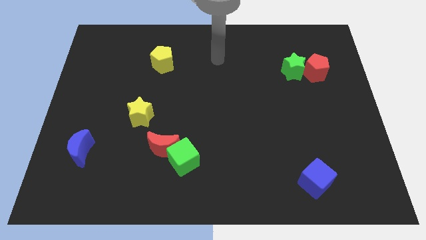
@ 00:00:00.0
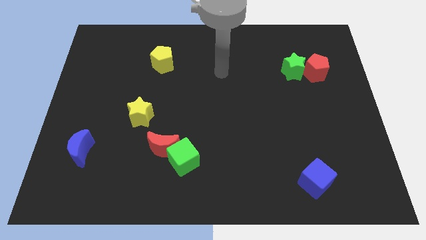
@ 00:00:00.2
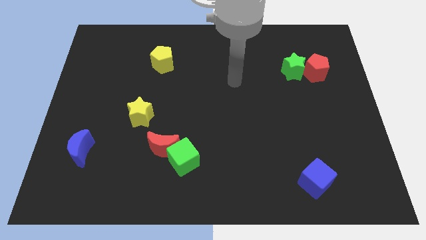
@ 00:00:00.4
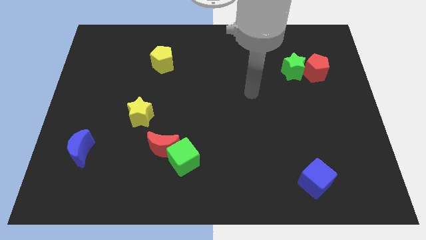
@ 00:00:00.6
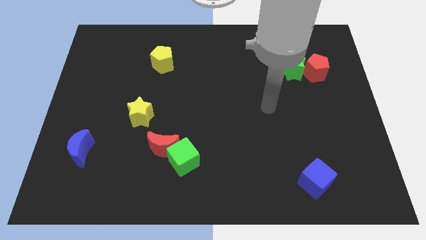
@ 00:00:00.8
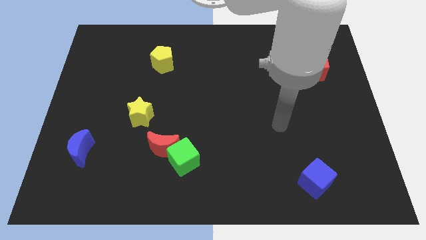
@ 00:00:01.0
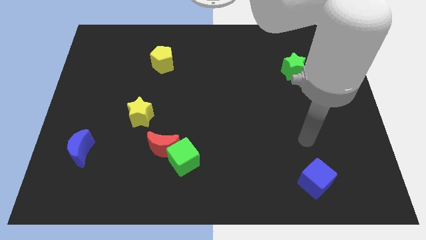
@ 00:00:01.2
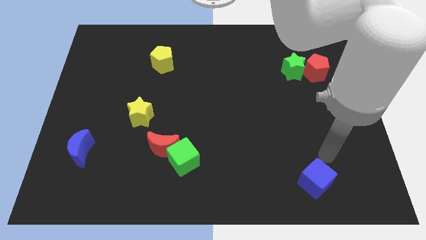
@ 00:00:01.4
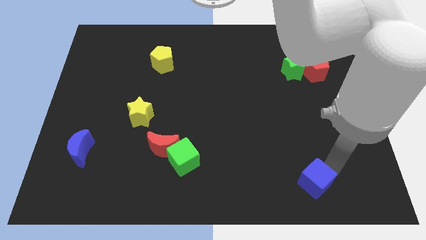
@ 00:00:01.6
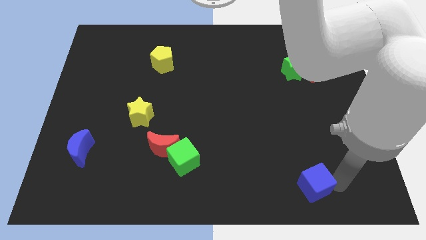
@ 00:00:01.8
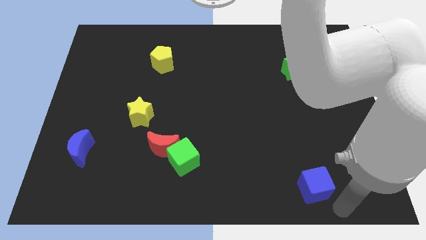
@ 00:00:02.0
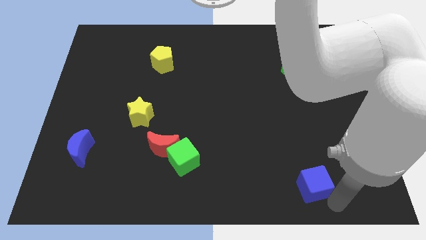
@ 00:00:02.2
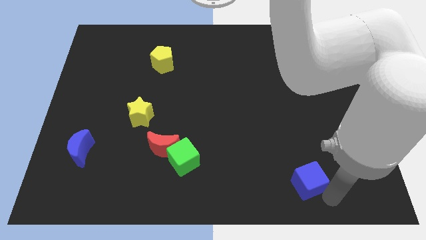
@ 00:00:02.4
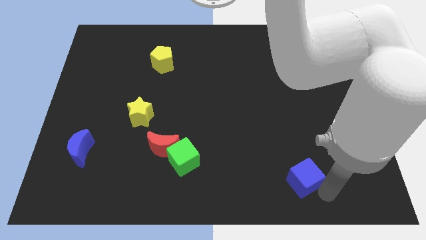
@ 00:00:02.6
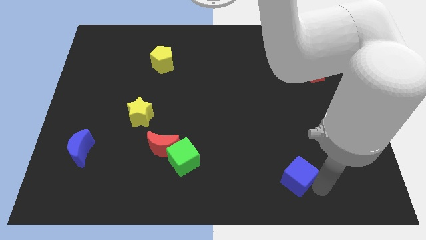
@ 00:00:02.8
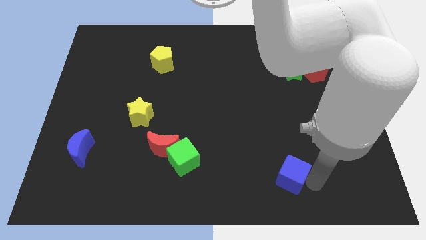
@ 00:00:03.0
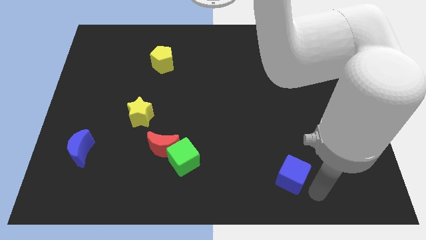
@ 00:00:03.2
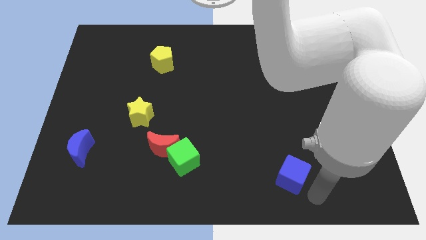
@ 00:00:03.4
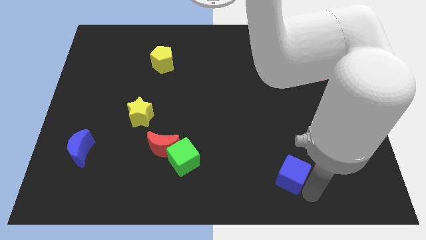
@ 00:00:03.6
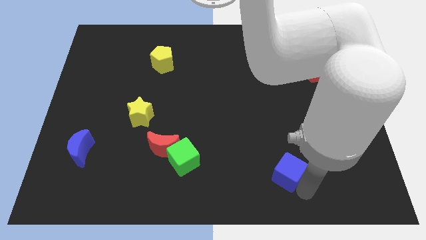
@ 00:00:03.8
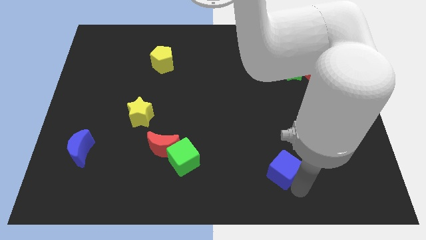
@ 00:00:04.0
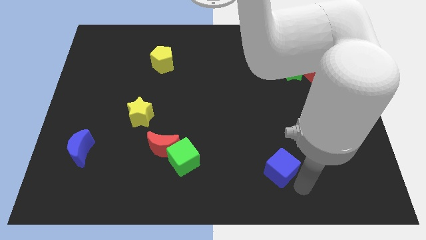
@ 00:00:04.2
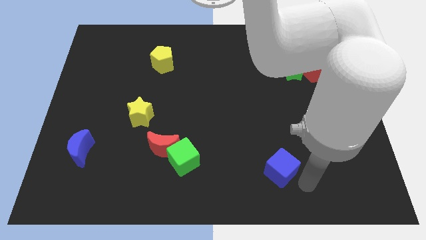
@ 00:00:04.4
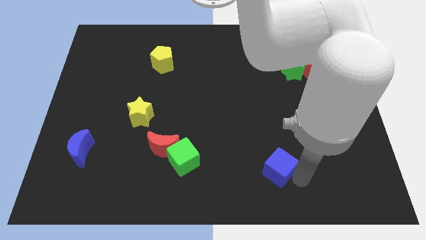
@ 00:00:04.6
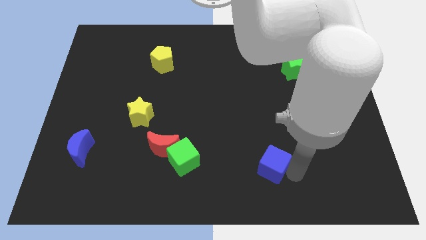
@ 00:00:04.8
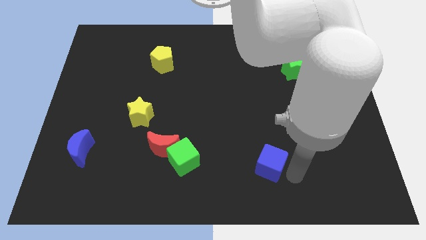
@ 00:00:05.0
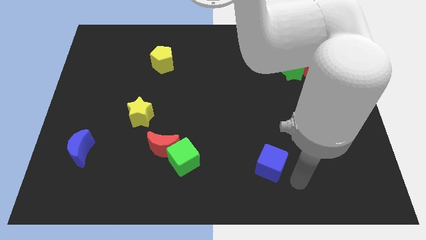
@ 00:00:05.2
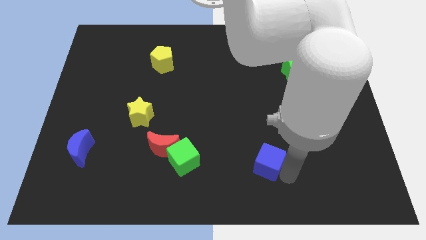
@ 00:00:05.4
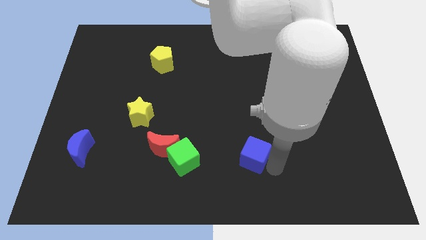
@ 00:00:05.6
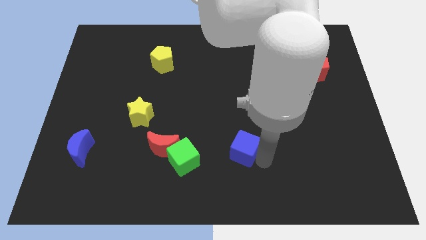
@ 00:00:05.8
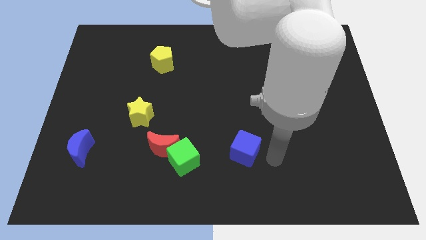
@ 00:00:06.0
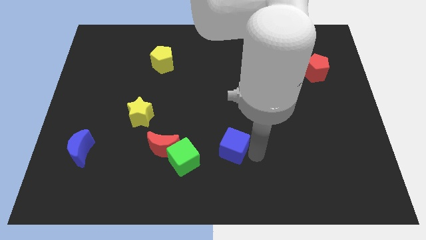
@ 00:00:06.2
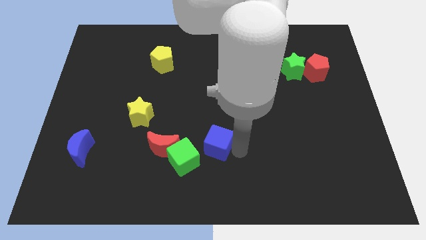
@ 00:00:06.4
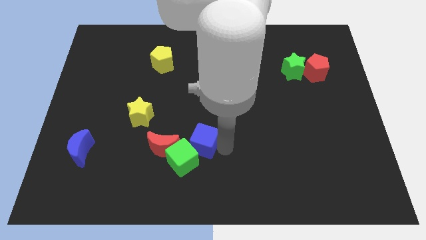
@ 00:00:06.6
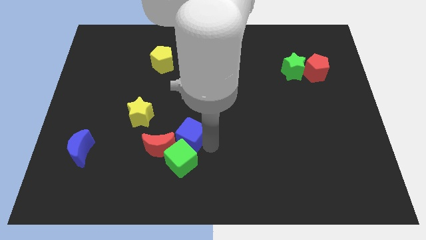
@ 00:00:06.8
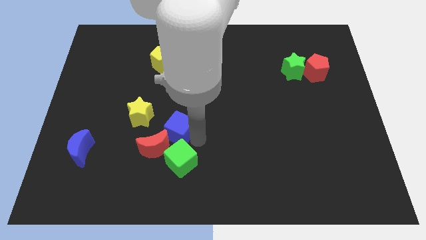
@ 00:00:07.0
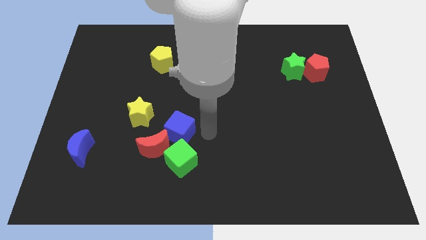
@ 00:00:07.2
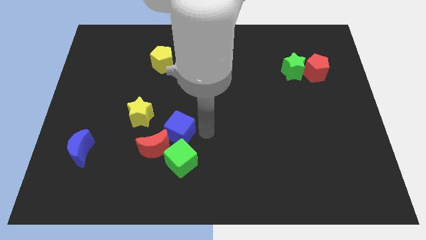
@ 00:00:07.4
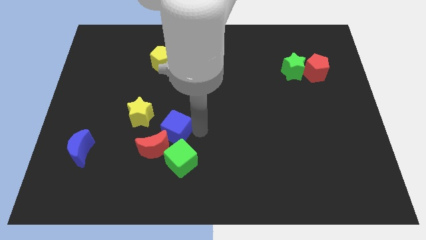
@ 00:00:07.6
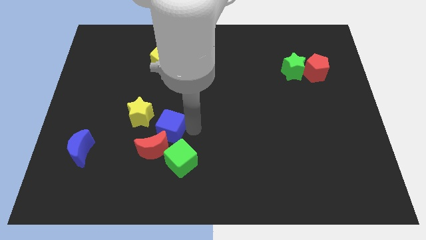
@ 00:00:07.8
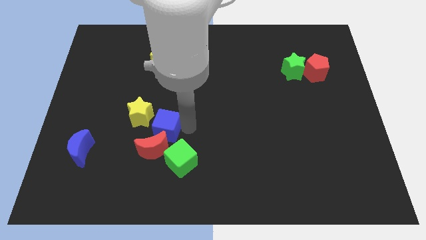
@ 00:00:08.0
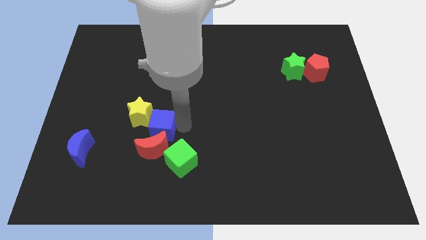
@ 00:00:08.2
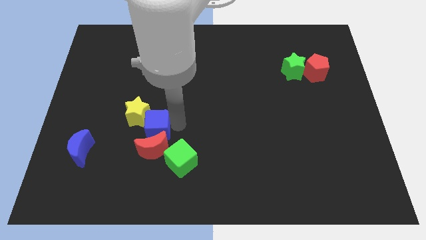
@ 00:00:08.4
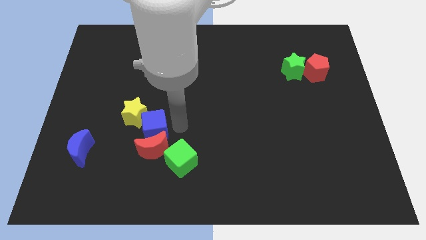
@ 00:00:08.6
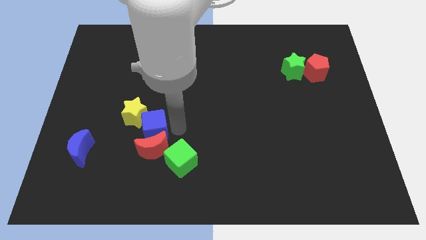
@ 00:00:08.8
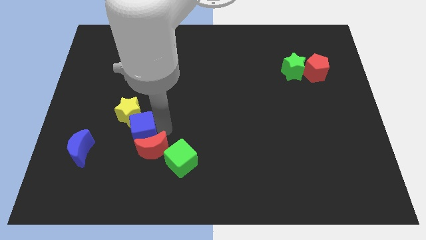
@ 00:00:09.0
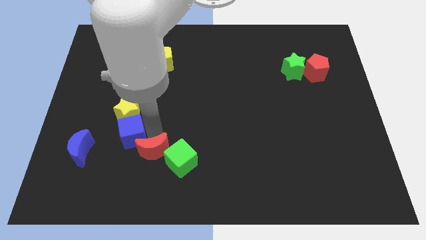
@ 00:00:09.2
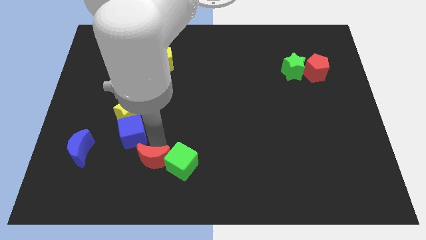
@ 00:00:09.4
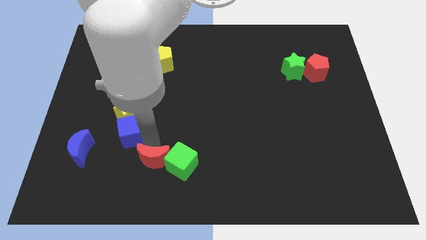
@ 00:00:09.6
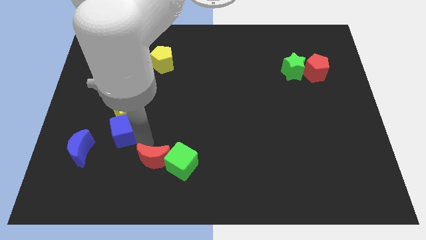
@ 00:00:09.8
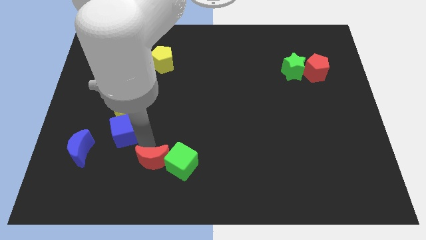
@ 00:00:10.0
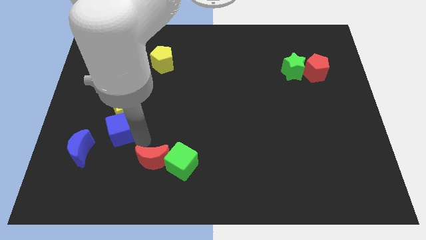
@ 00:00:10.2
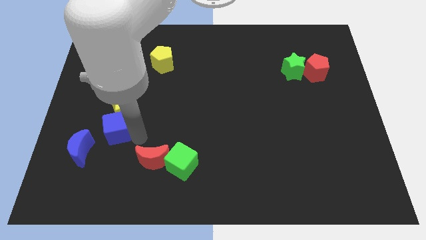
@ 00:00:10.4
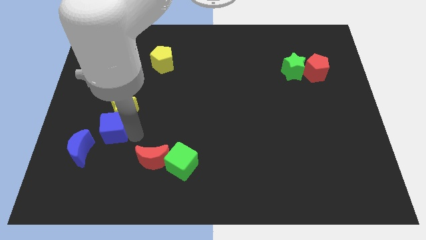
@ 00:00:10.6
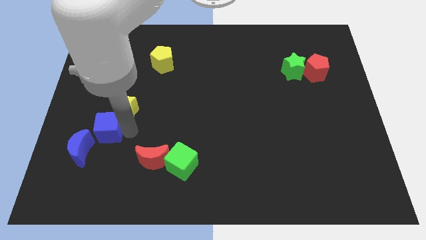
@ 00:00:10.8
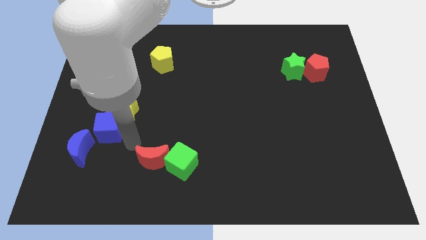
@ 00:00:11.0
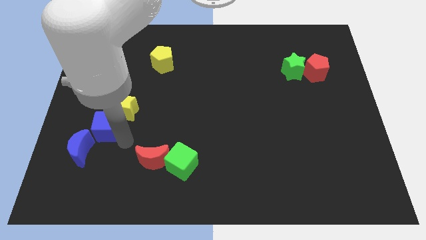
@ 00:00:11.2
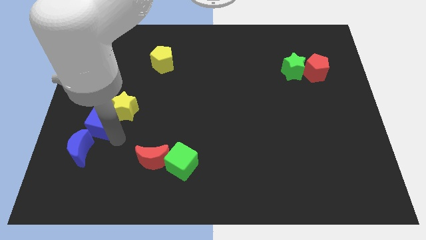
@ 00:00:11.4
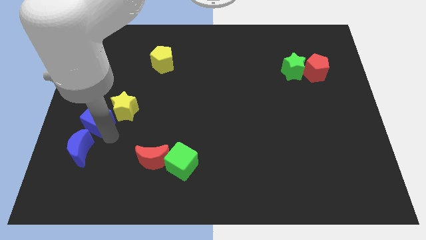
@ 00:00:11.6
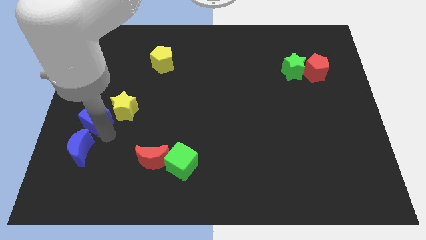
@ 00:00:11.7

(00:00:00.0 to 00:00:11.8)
move the blue cube to the center left

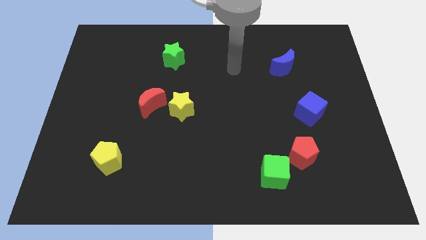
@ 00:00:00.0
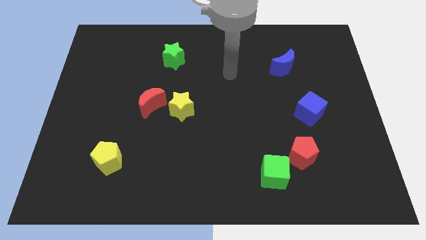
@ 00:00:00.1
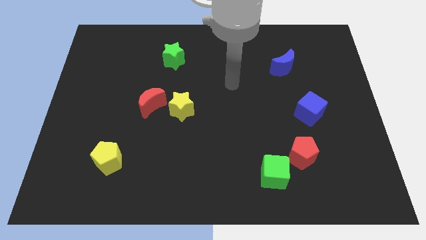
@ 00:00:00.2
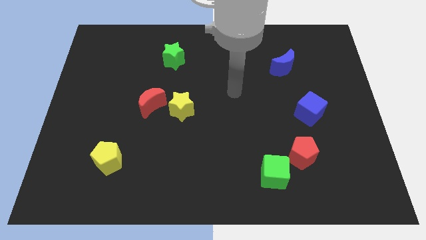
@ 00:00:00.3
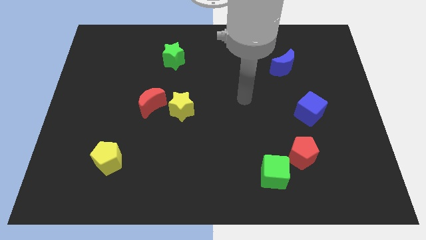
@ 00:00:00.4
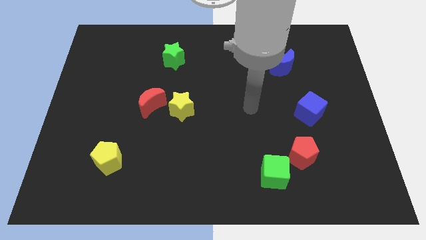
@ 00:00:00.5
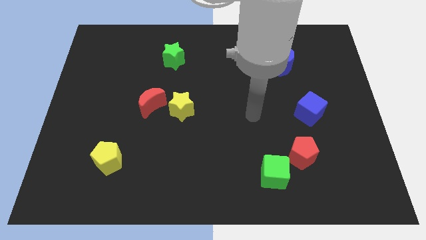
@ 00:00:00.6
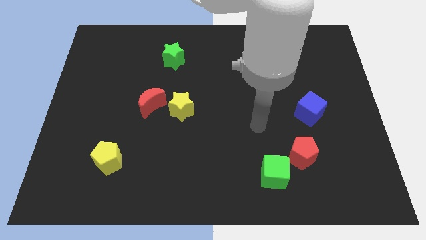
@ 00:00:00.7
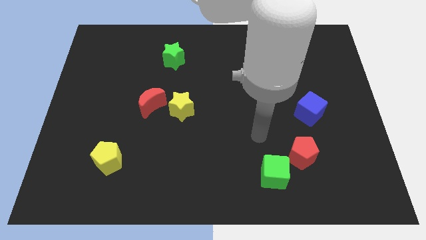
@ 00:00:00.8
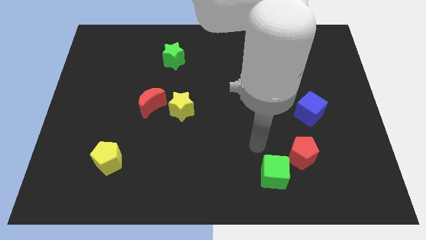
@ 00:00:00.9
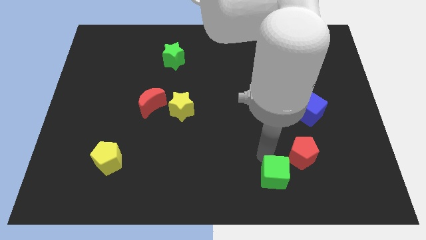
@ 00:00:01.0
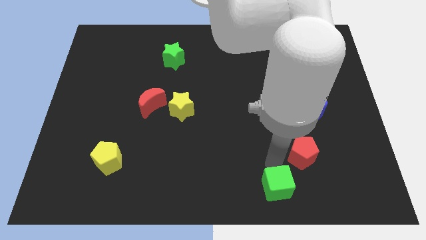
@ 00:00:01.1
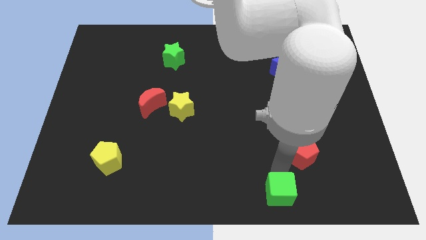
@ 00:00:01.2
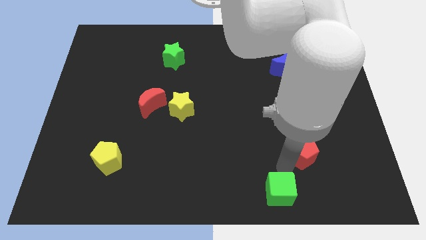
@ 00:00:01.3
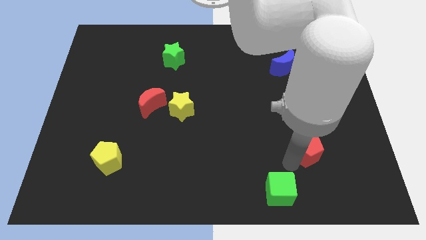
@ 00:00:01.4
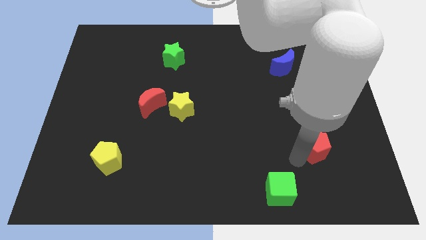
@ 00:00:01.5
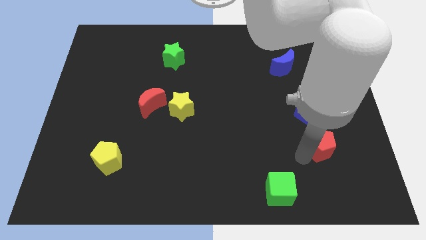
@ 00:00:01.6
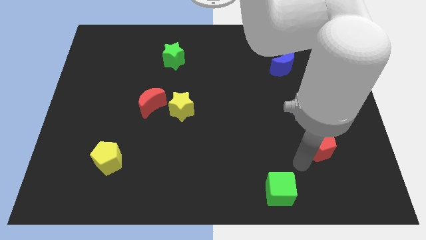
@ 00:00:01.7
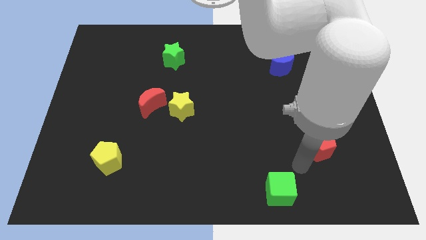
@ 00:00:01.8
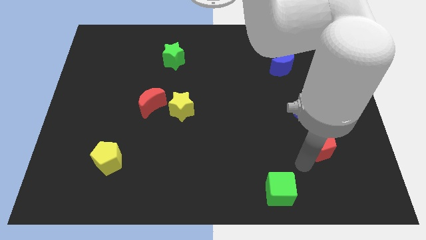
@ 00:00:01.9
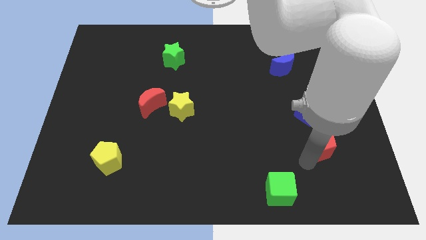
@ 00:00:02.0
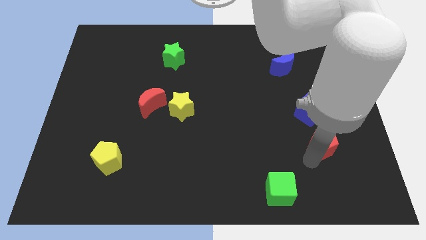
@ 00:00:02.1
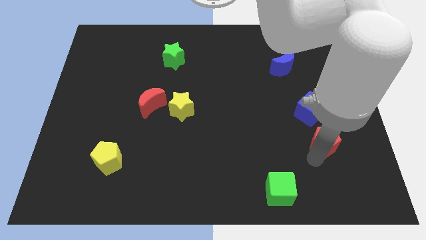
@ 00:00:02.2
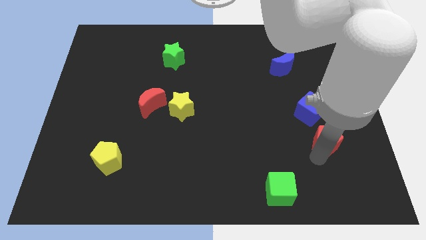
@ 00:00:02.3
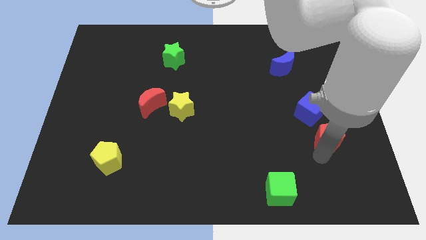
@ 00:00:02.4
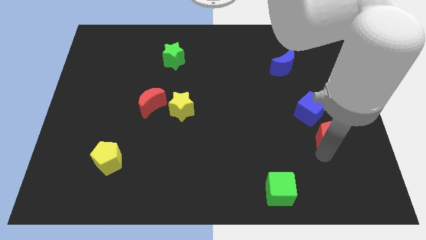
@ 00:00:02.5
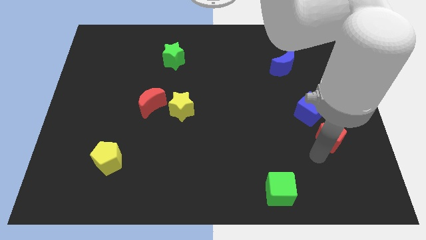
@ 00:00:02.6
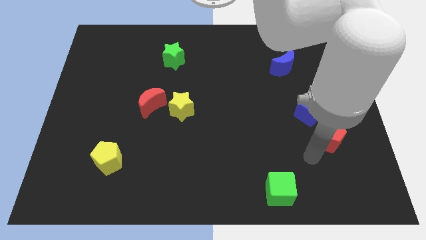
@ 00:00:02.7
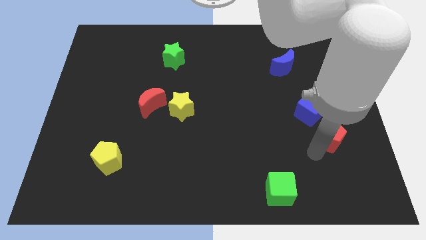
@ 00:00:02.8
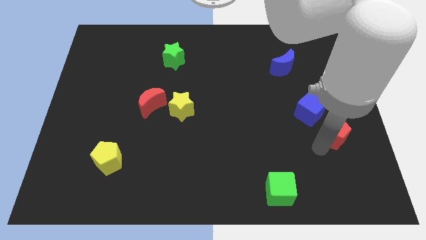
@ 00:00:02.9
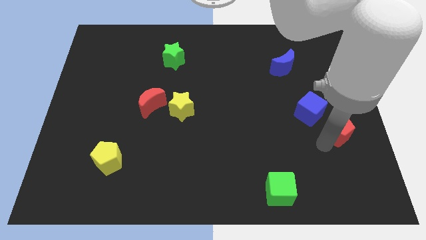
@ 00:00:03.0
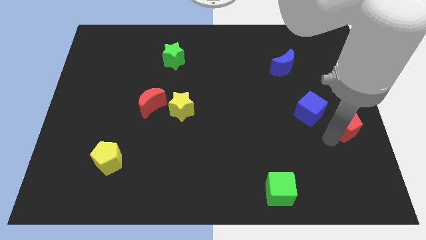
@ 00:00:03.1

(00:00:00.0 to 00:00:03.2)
push the red pentagon to the right side of the board
